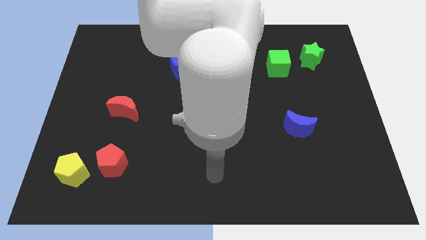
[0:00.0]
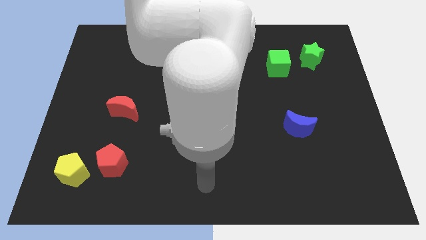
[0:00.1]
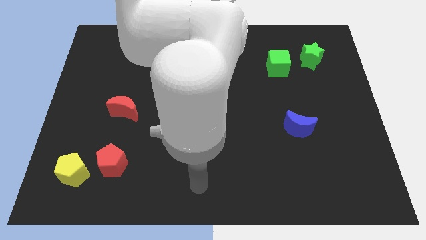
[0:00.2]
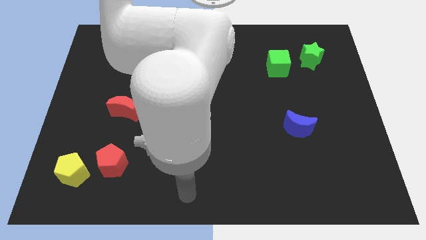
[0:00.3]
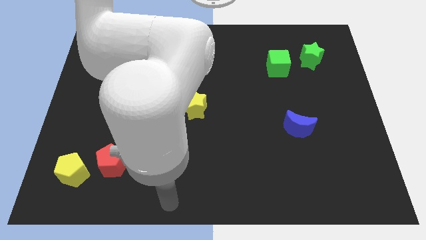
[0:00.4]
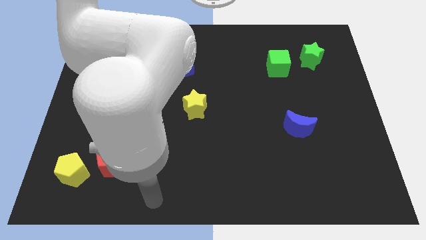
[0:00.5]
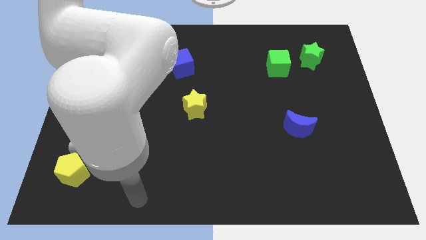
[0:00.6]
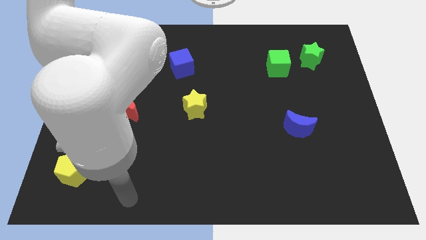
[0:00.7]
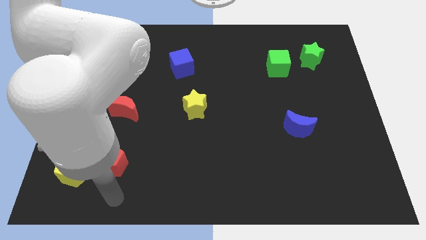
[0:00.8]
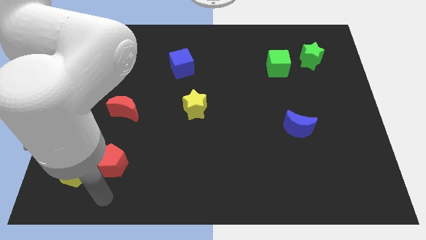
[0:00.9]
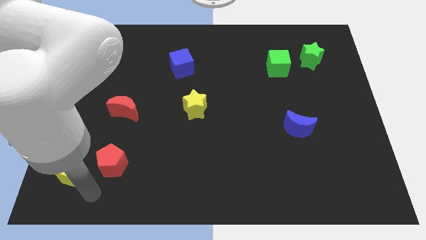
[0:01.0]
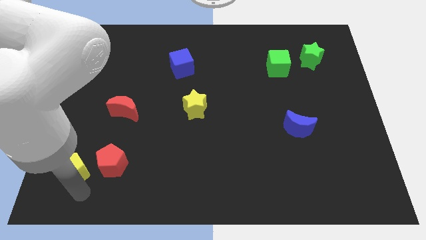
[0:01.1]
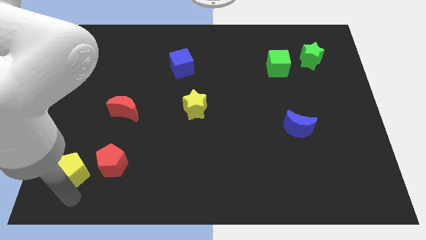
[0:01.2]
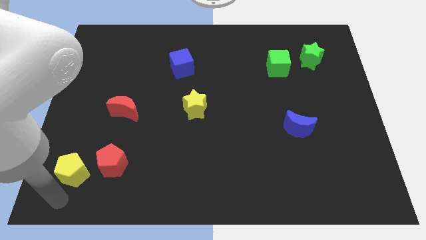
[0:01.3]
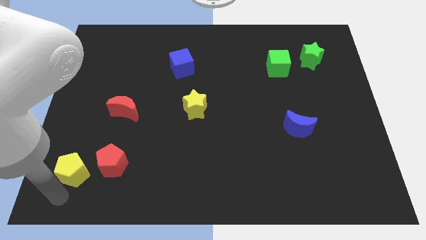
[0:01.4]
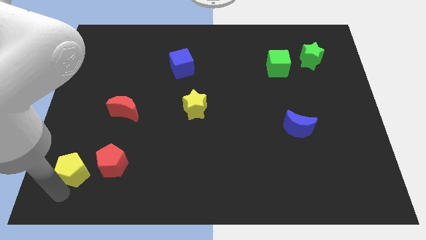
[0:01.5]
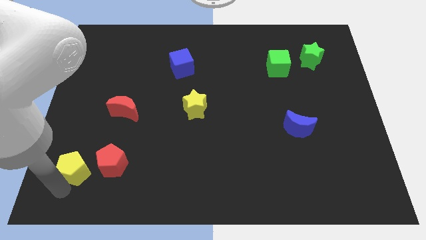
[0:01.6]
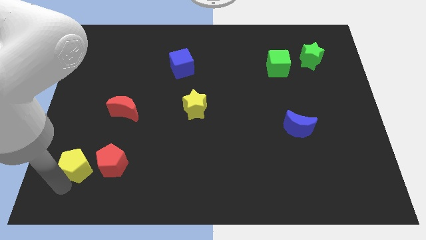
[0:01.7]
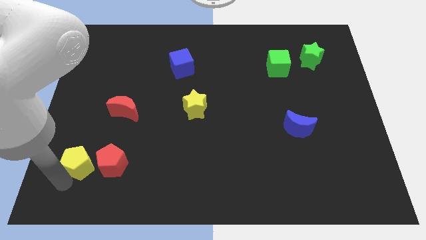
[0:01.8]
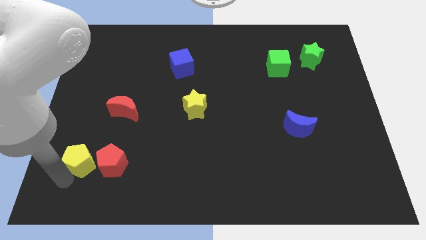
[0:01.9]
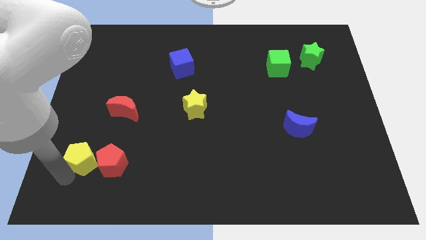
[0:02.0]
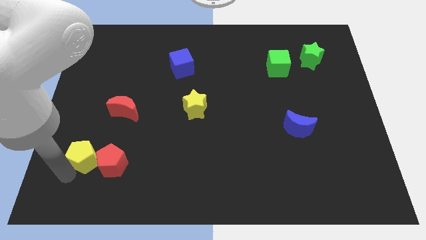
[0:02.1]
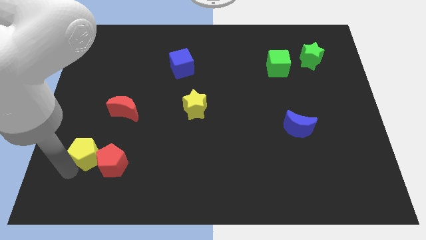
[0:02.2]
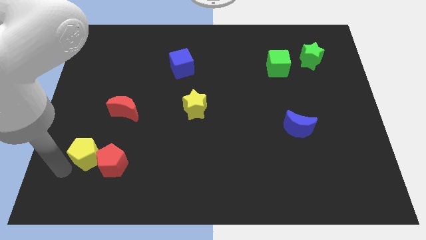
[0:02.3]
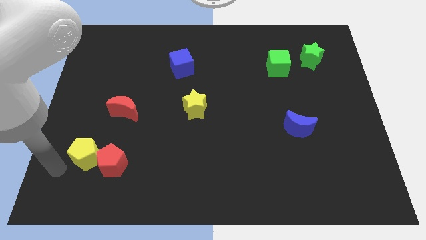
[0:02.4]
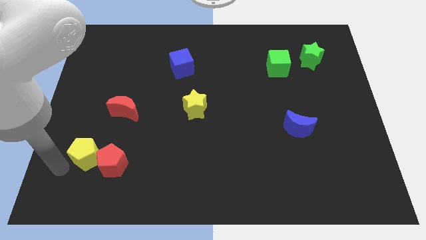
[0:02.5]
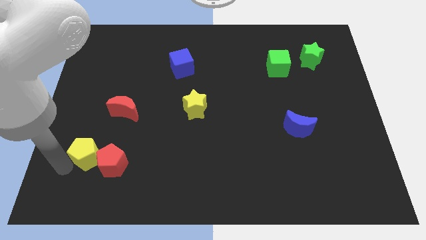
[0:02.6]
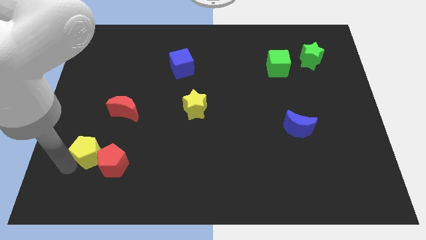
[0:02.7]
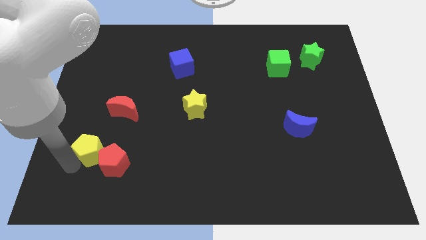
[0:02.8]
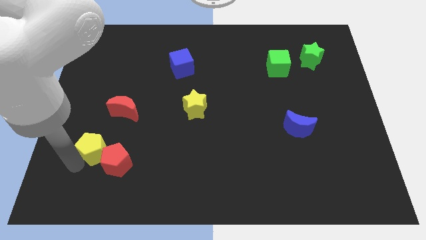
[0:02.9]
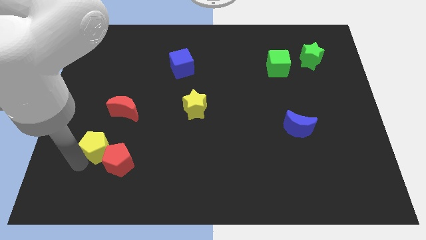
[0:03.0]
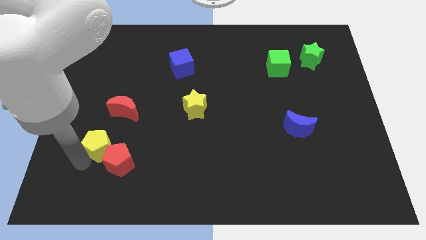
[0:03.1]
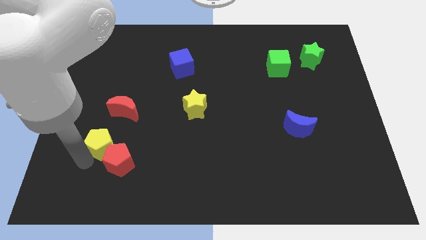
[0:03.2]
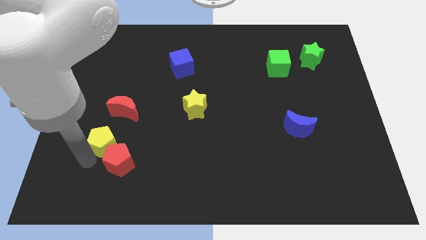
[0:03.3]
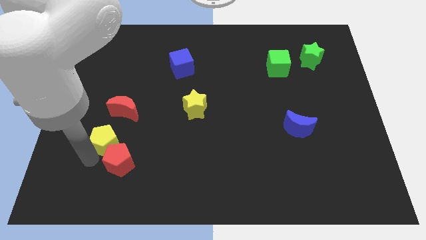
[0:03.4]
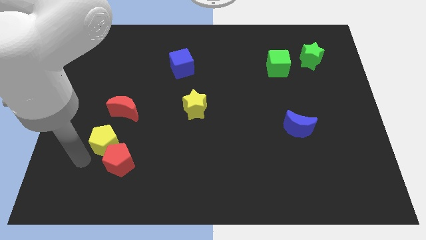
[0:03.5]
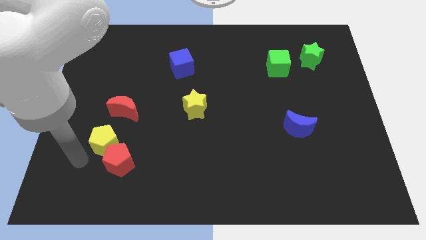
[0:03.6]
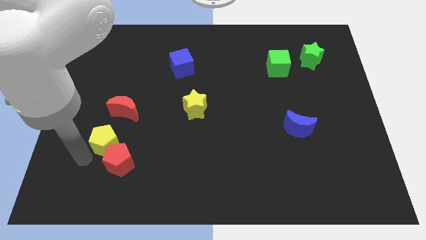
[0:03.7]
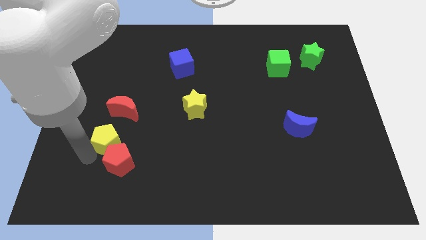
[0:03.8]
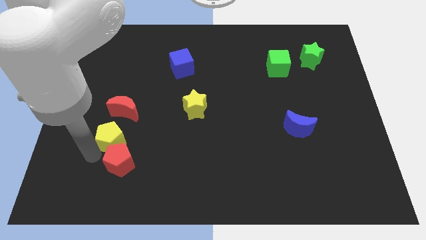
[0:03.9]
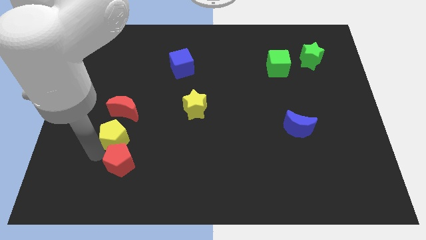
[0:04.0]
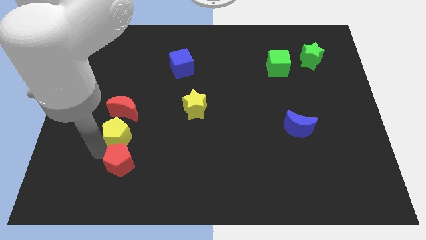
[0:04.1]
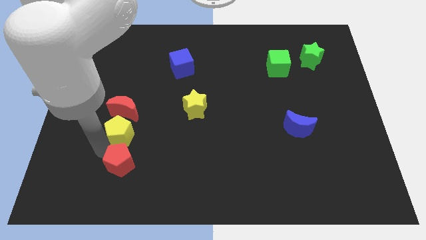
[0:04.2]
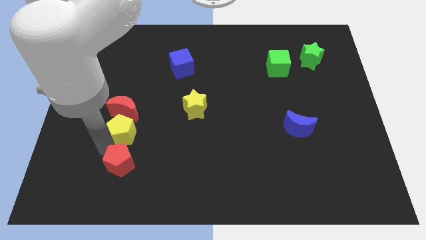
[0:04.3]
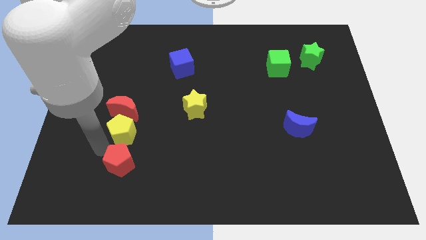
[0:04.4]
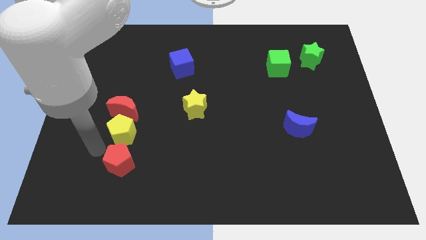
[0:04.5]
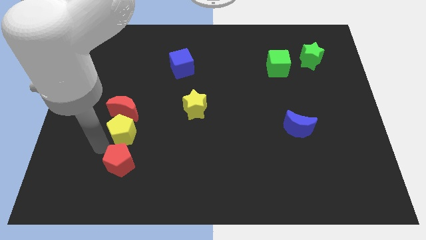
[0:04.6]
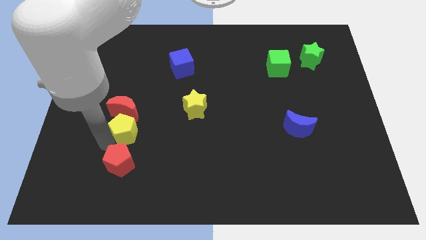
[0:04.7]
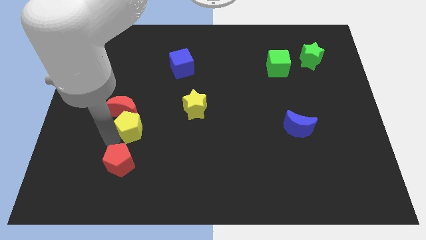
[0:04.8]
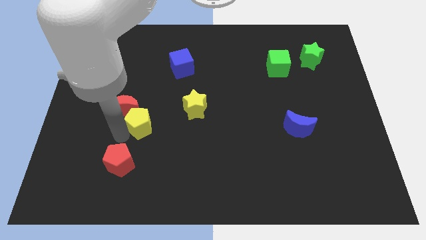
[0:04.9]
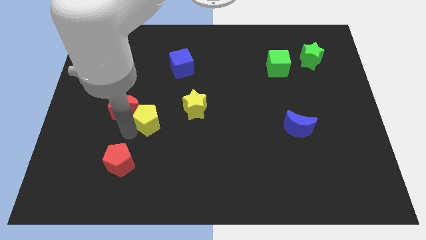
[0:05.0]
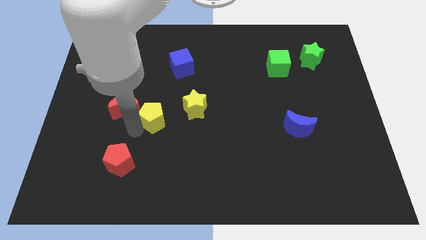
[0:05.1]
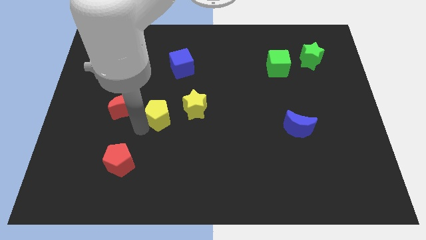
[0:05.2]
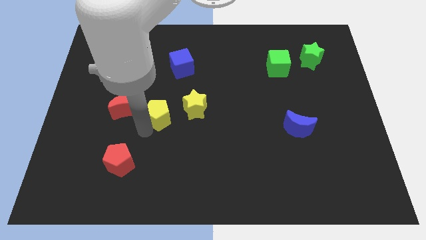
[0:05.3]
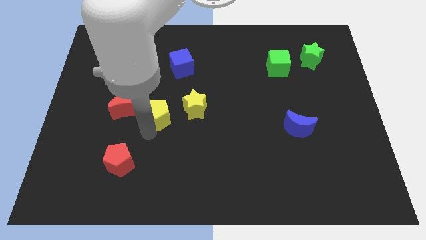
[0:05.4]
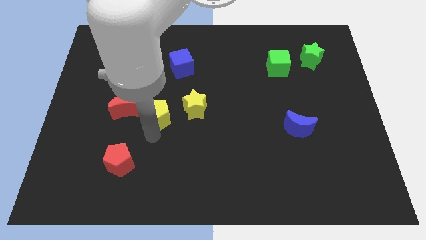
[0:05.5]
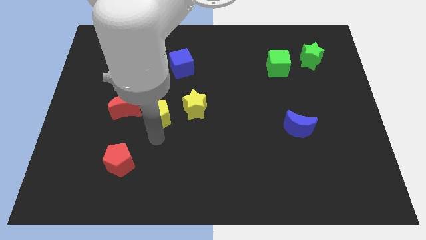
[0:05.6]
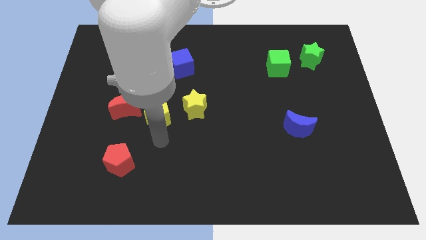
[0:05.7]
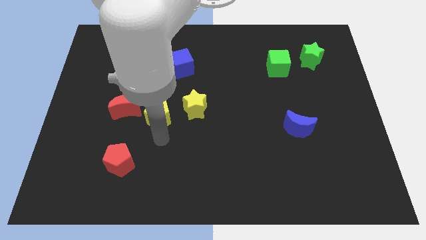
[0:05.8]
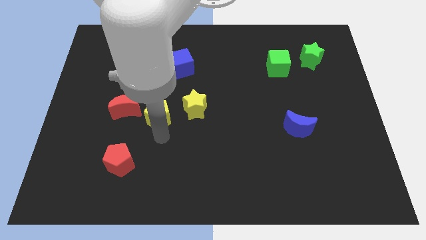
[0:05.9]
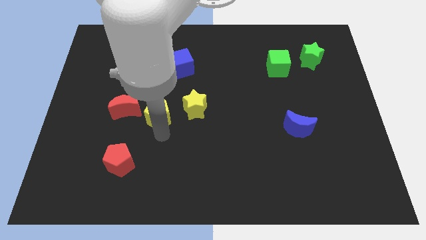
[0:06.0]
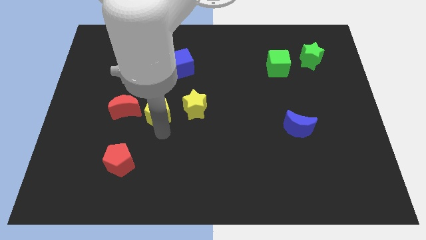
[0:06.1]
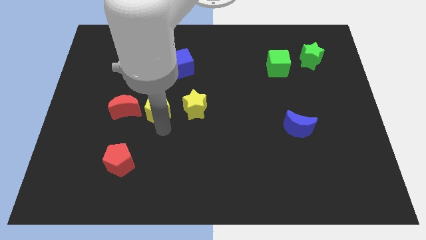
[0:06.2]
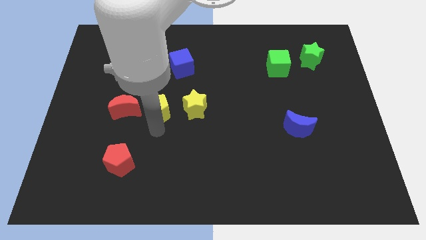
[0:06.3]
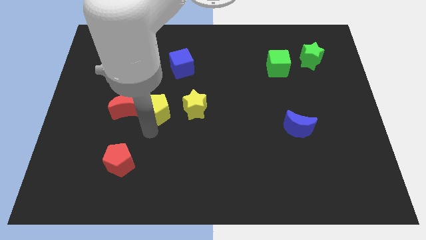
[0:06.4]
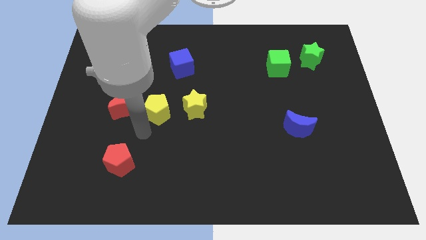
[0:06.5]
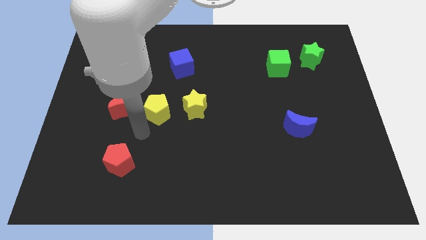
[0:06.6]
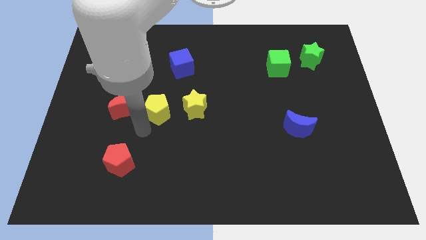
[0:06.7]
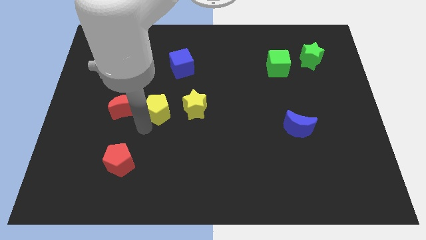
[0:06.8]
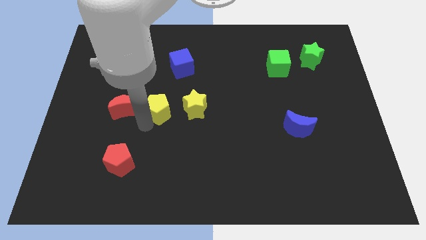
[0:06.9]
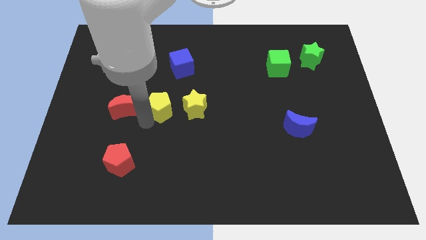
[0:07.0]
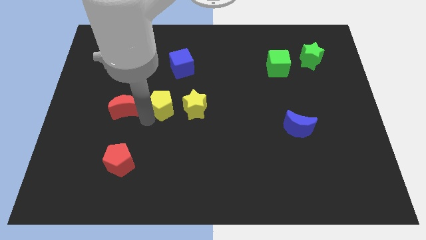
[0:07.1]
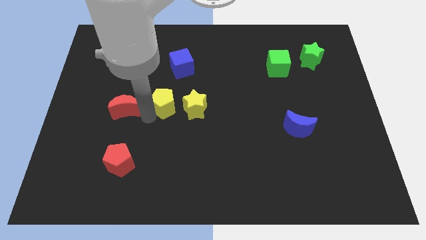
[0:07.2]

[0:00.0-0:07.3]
move the yellow pentagon to the top left of the yellow star

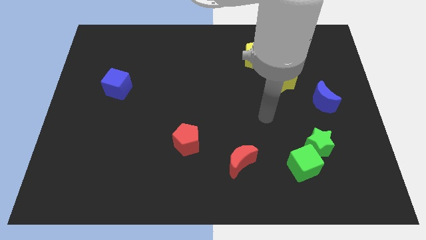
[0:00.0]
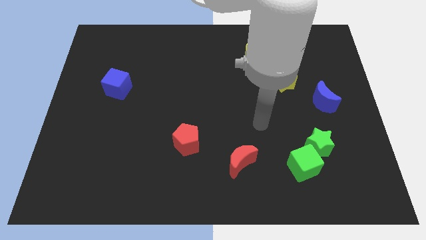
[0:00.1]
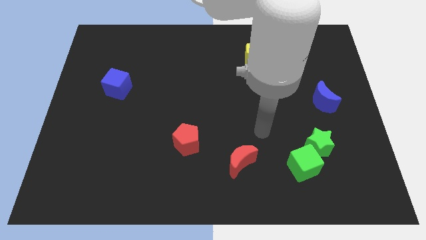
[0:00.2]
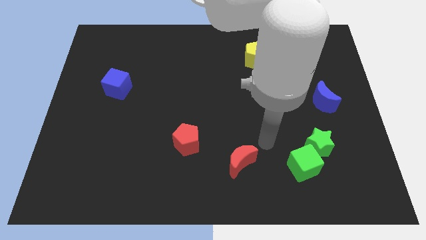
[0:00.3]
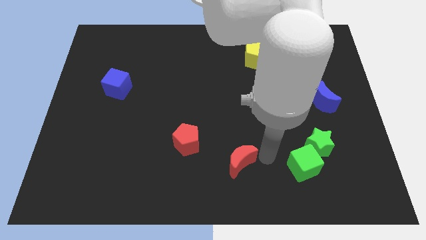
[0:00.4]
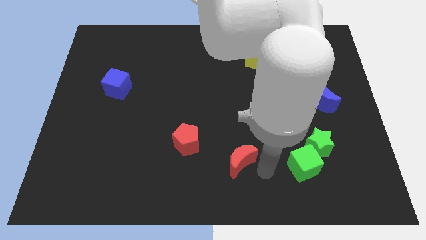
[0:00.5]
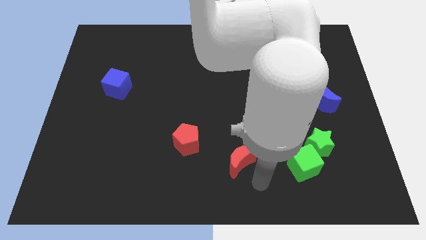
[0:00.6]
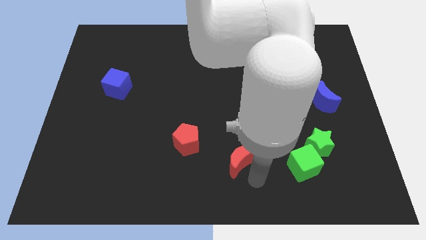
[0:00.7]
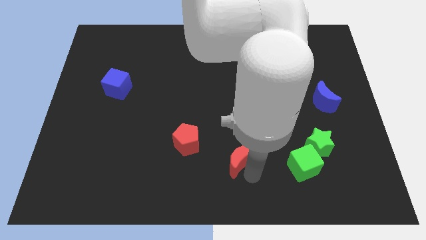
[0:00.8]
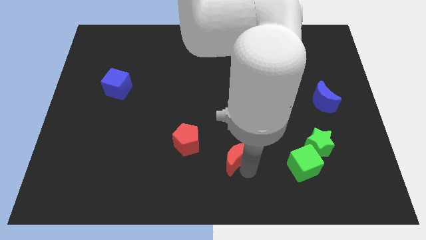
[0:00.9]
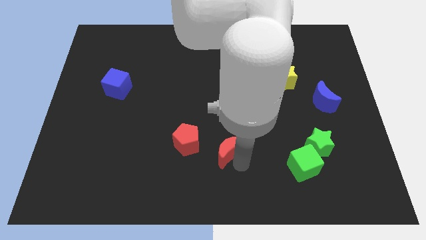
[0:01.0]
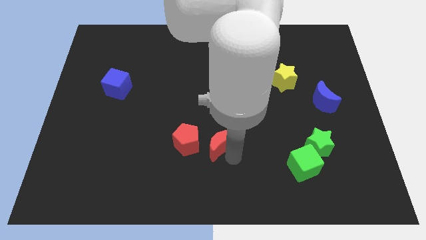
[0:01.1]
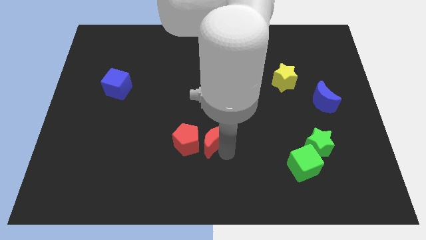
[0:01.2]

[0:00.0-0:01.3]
slide the red moon to the top right of the red pentagon
